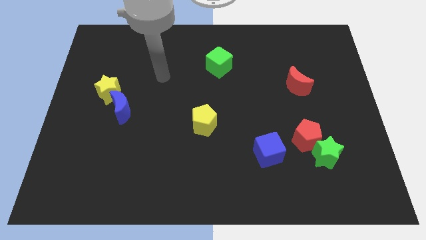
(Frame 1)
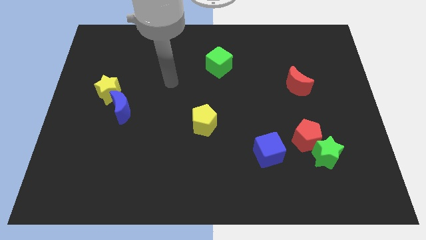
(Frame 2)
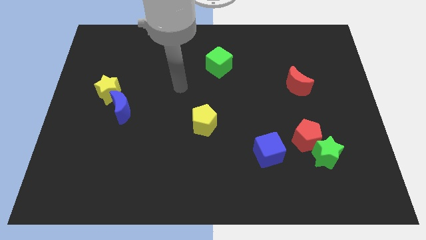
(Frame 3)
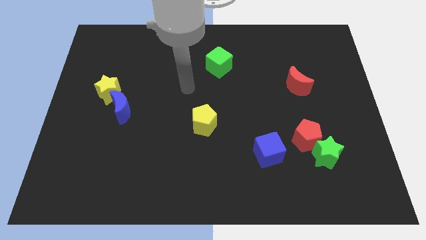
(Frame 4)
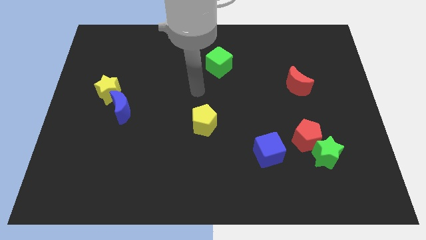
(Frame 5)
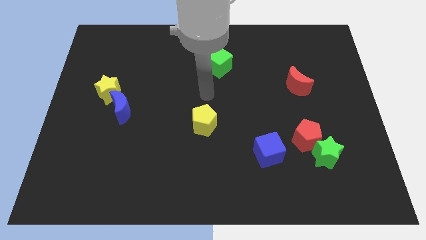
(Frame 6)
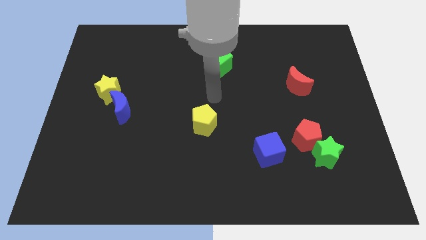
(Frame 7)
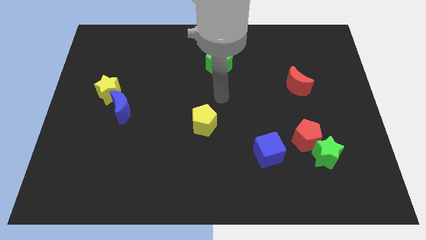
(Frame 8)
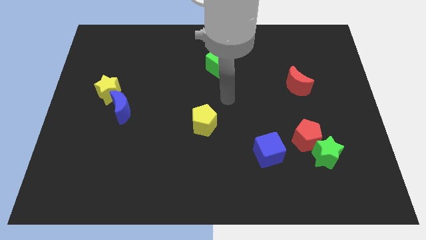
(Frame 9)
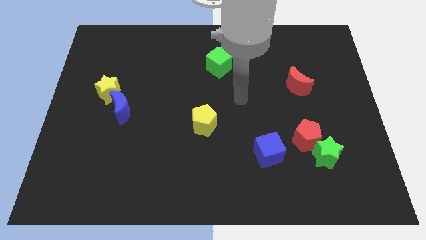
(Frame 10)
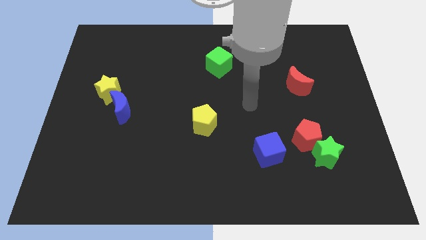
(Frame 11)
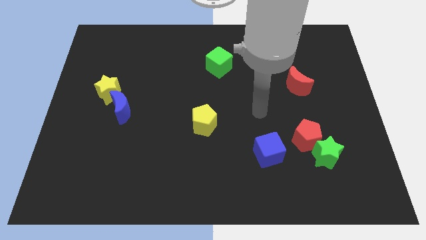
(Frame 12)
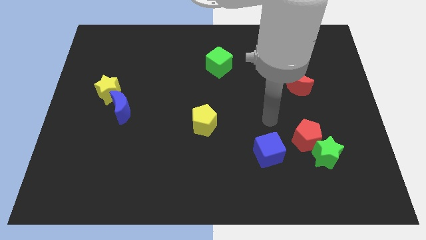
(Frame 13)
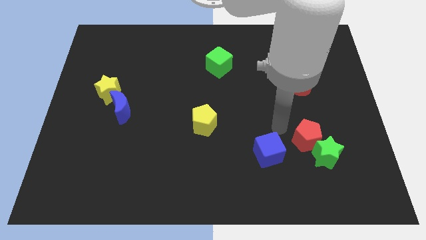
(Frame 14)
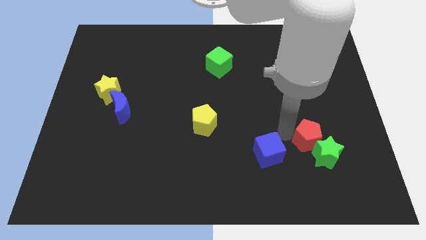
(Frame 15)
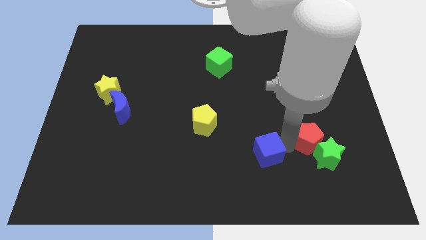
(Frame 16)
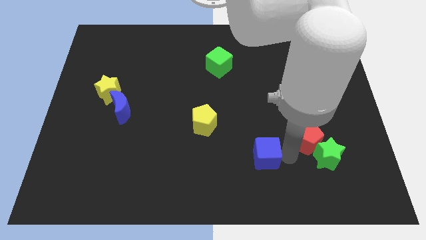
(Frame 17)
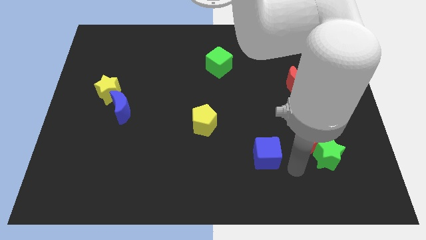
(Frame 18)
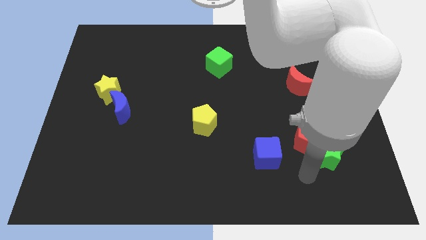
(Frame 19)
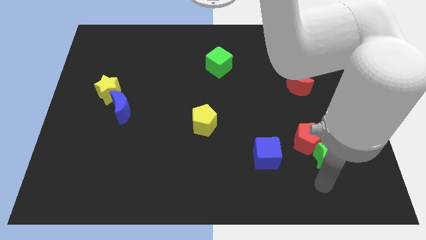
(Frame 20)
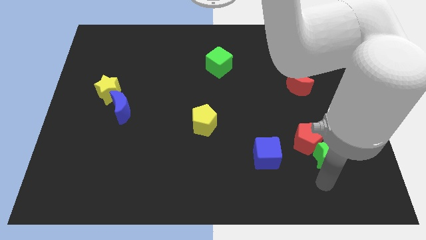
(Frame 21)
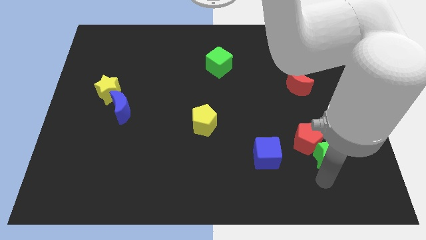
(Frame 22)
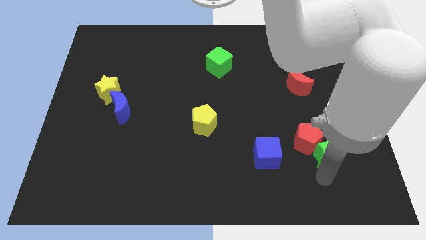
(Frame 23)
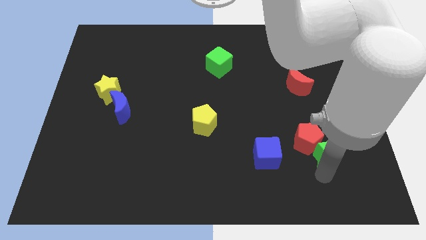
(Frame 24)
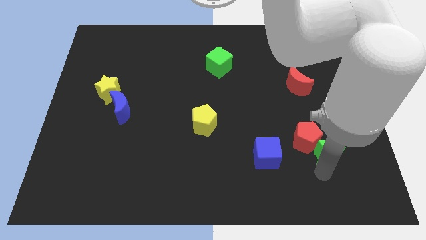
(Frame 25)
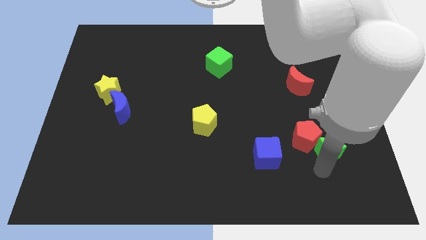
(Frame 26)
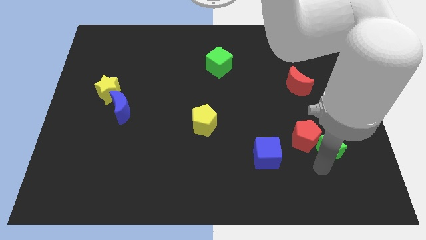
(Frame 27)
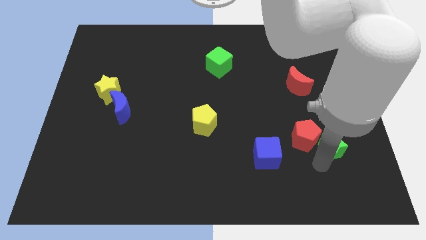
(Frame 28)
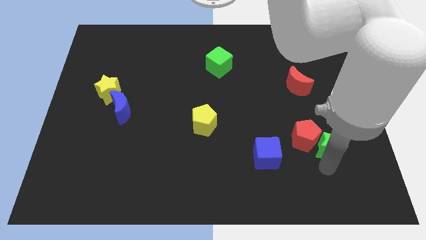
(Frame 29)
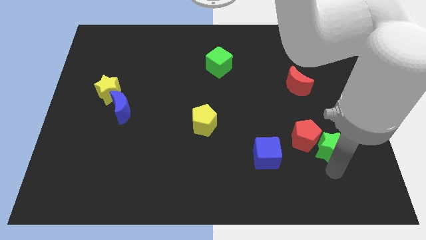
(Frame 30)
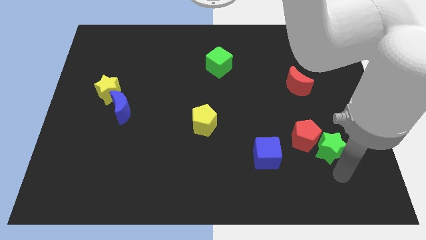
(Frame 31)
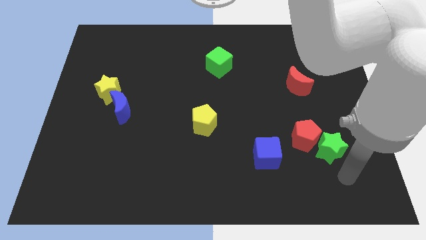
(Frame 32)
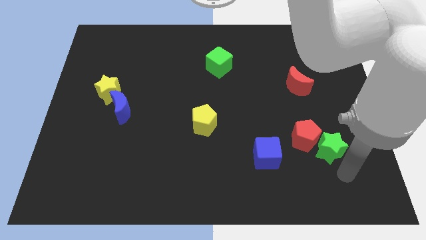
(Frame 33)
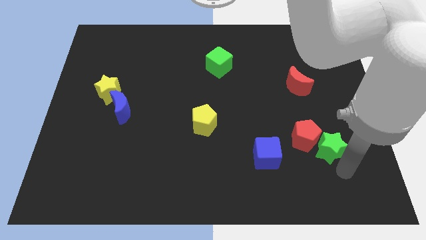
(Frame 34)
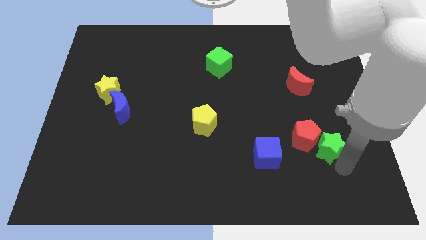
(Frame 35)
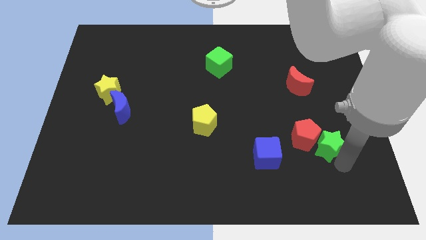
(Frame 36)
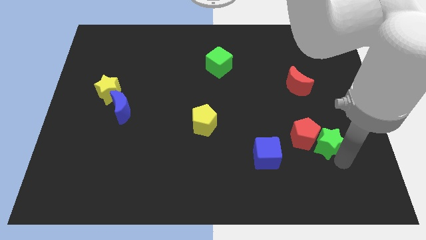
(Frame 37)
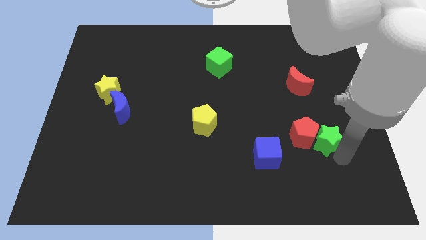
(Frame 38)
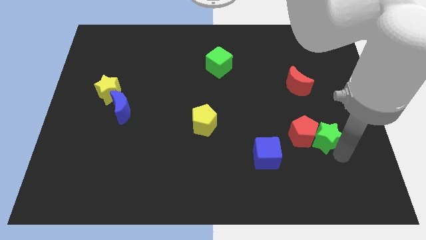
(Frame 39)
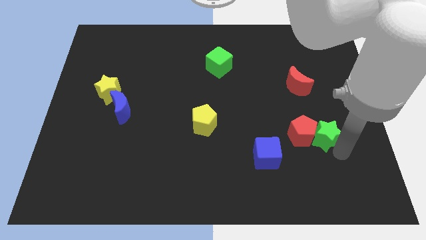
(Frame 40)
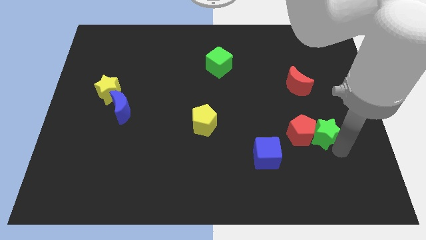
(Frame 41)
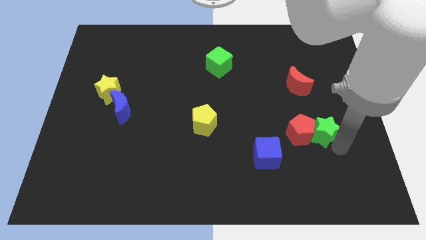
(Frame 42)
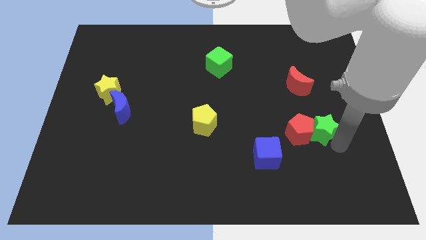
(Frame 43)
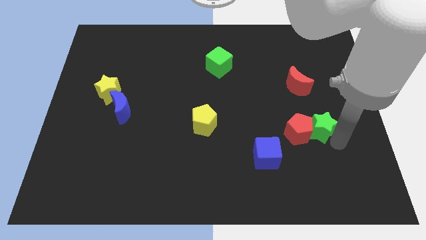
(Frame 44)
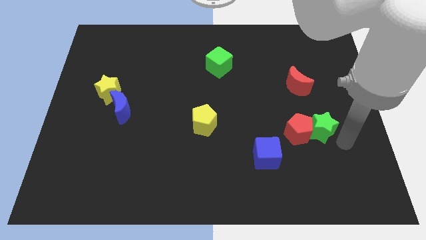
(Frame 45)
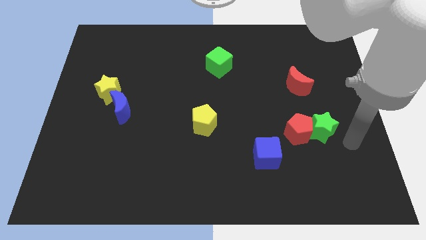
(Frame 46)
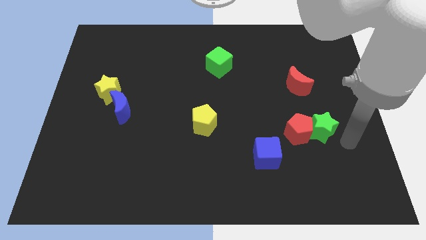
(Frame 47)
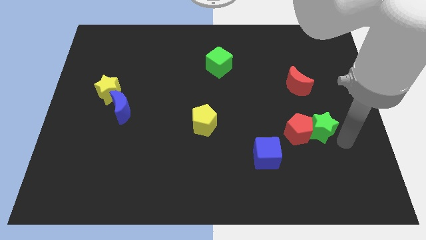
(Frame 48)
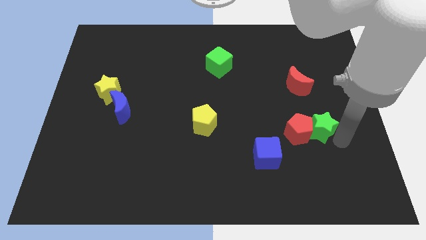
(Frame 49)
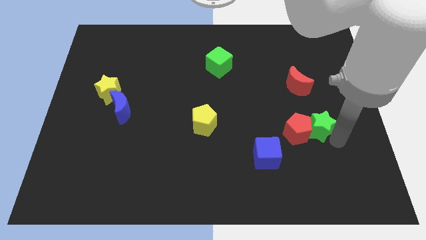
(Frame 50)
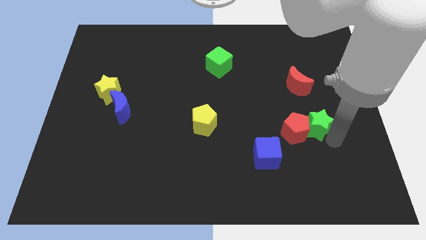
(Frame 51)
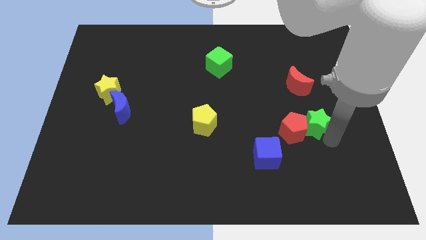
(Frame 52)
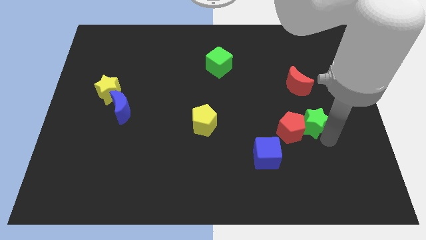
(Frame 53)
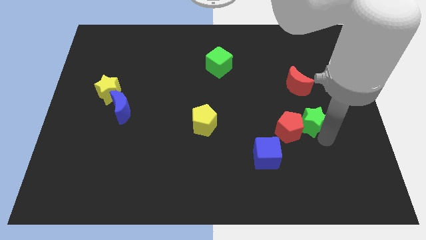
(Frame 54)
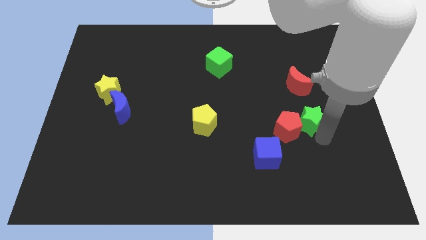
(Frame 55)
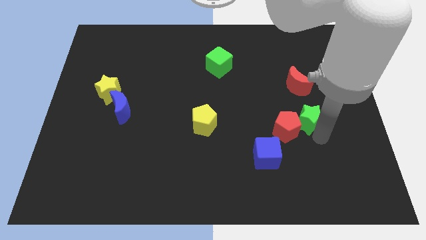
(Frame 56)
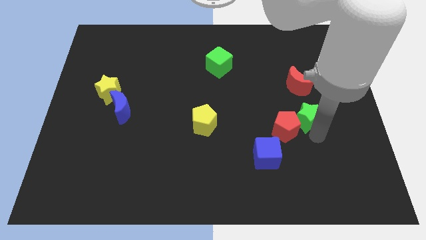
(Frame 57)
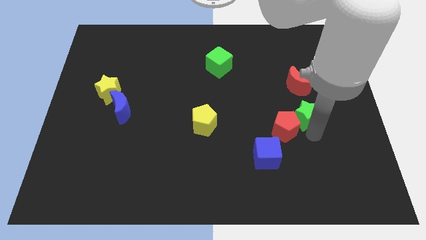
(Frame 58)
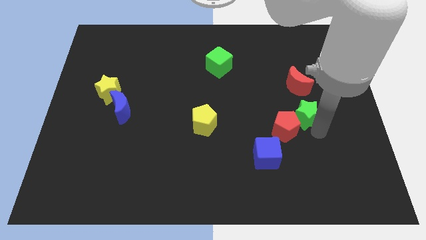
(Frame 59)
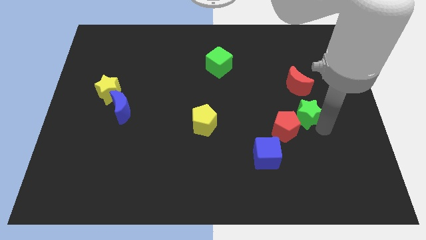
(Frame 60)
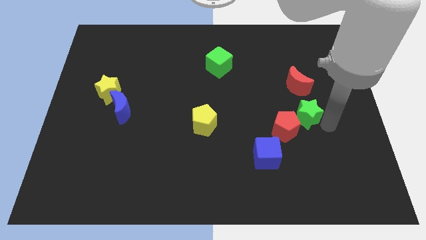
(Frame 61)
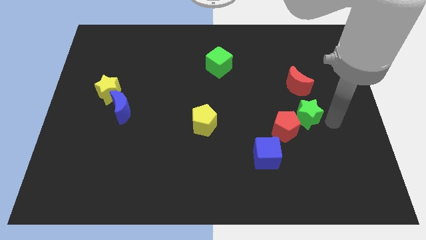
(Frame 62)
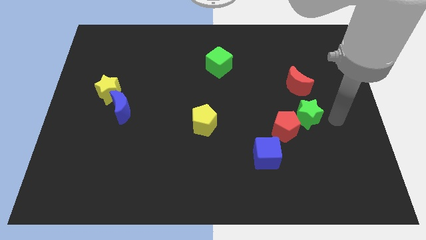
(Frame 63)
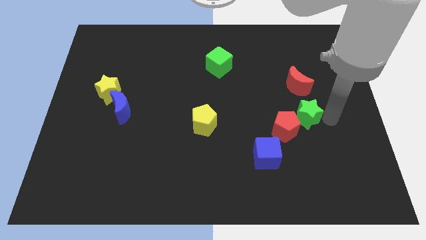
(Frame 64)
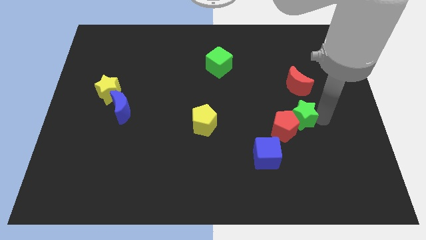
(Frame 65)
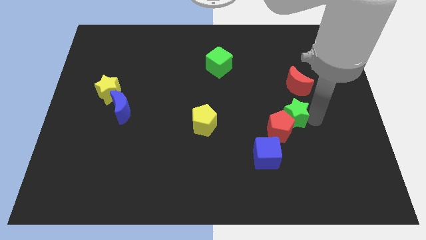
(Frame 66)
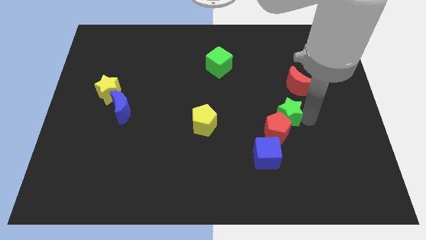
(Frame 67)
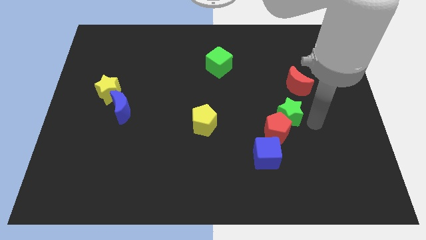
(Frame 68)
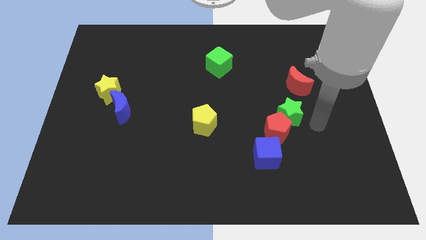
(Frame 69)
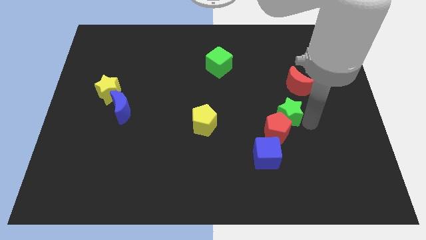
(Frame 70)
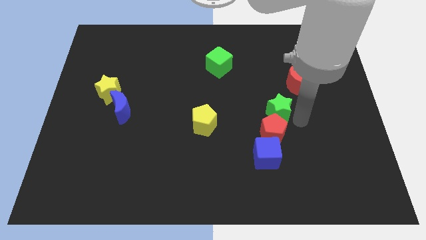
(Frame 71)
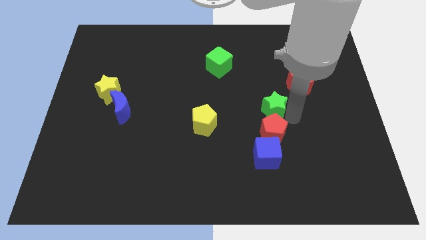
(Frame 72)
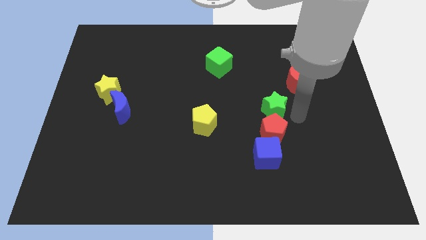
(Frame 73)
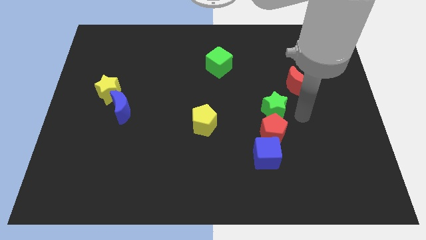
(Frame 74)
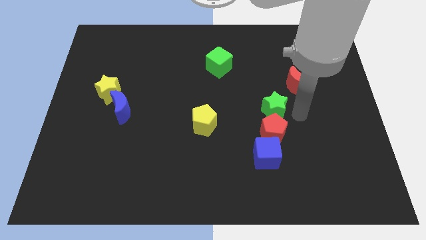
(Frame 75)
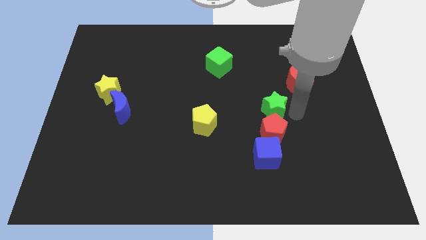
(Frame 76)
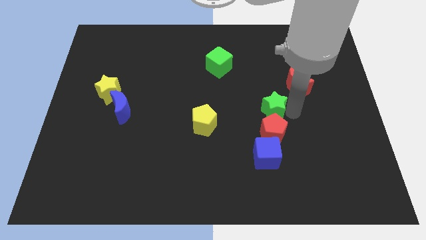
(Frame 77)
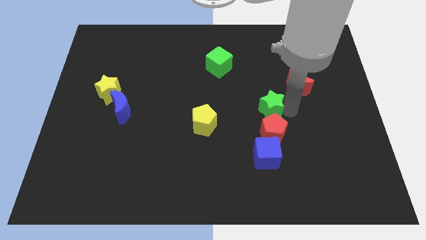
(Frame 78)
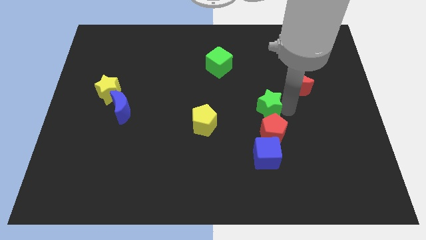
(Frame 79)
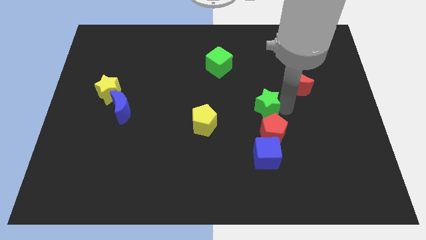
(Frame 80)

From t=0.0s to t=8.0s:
slide the green star to the middle
